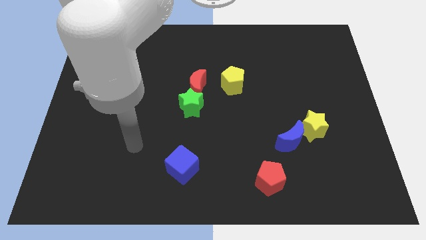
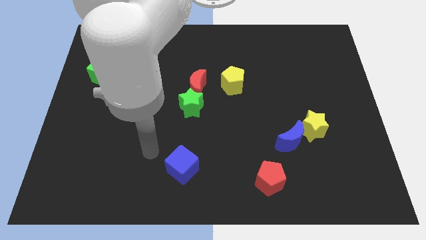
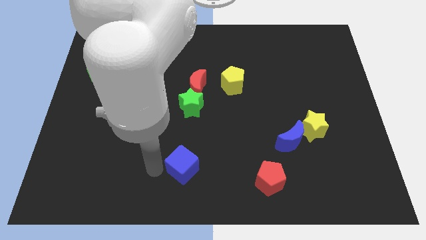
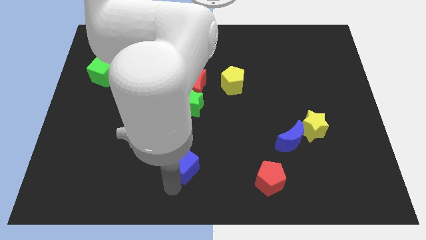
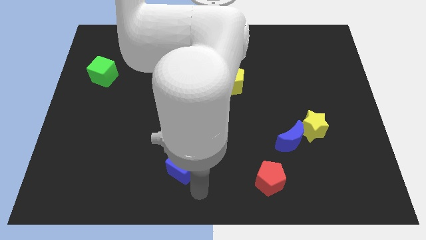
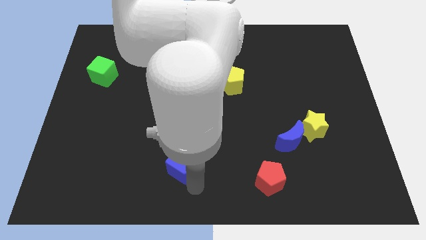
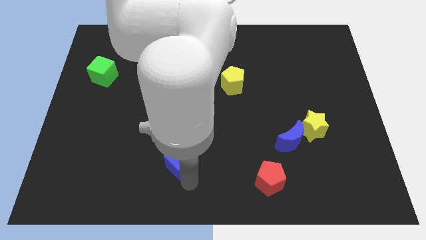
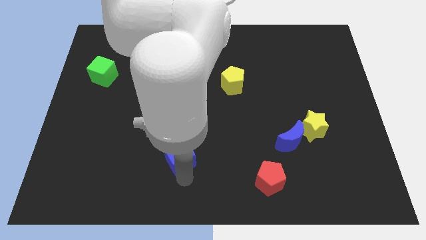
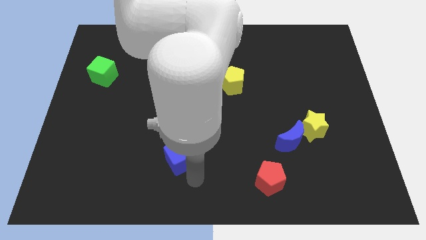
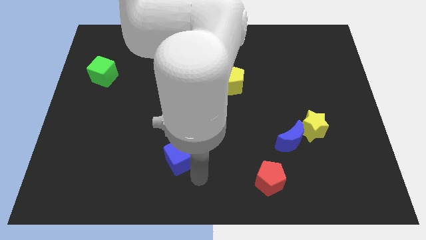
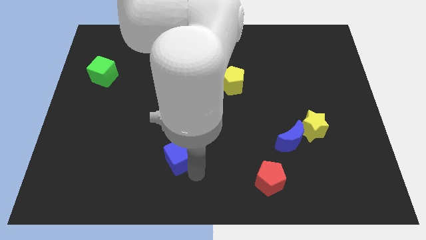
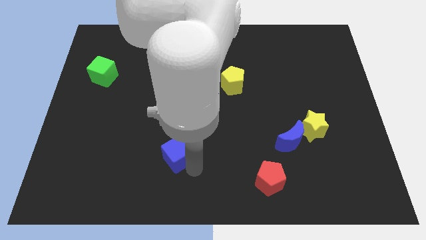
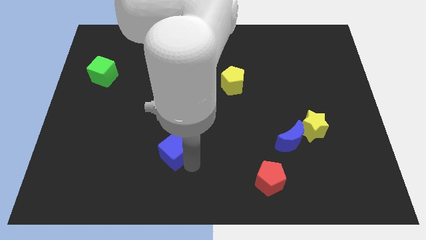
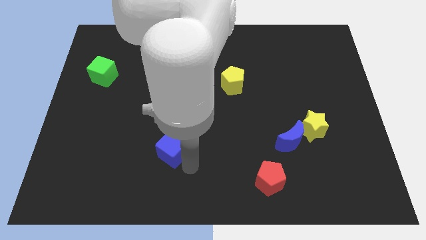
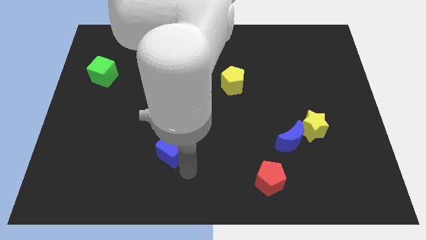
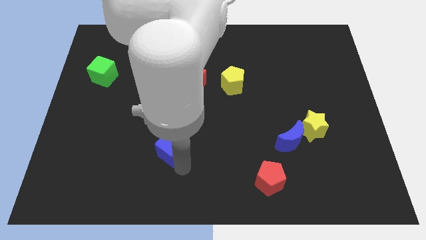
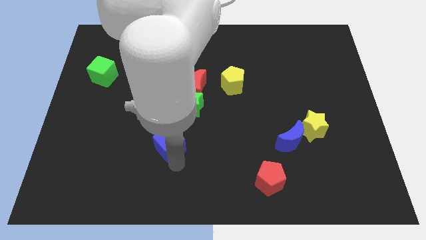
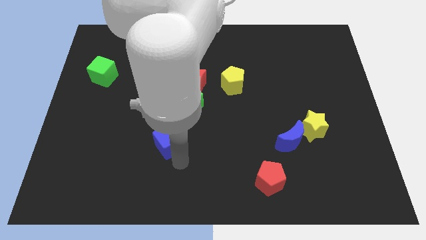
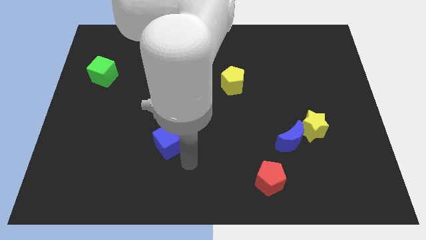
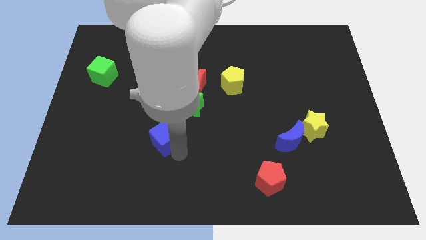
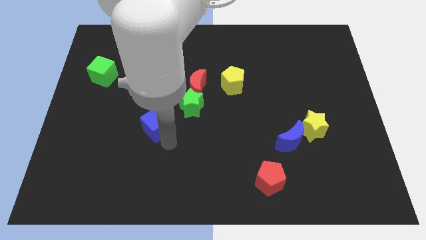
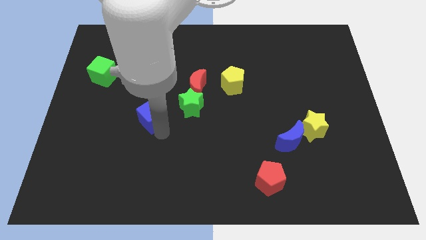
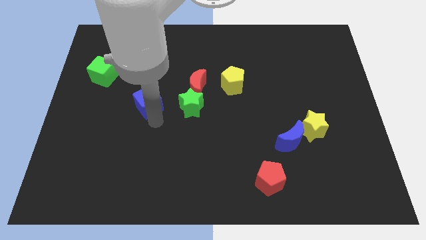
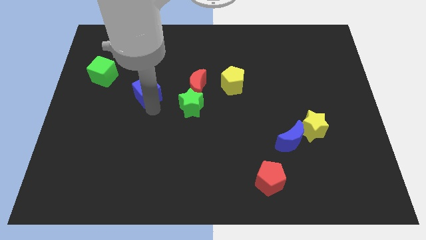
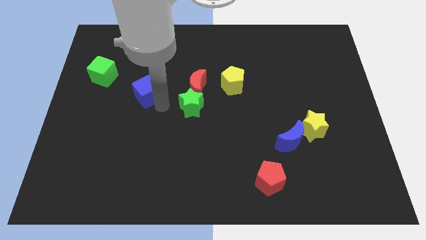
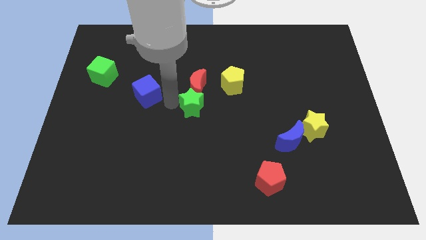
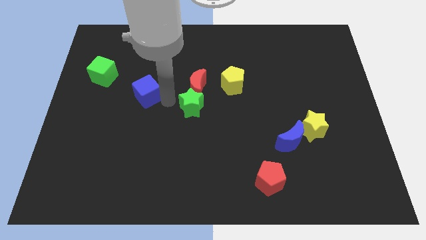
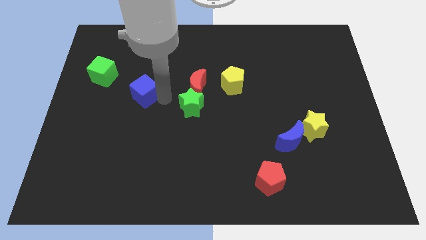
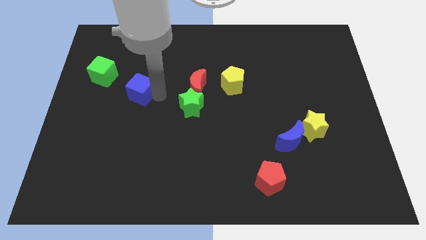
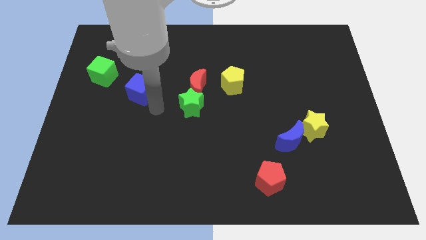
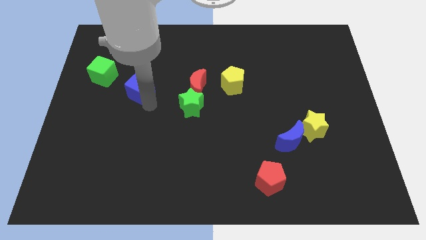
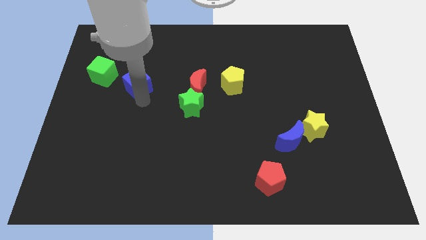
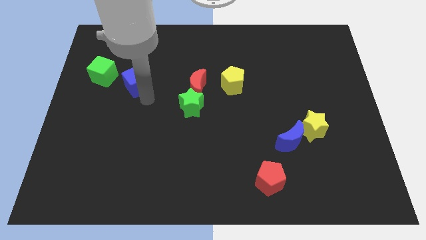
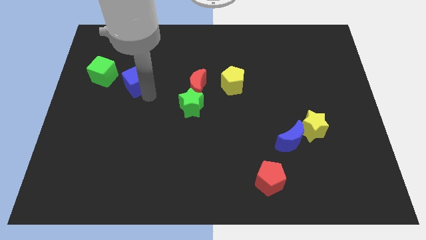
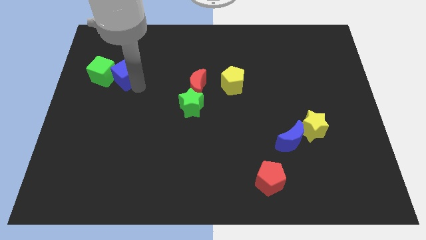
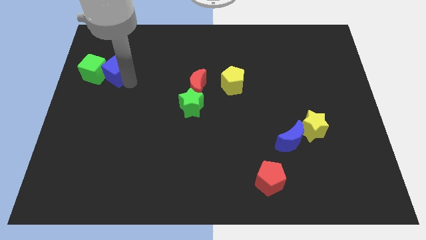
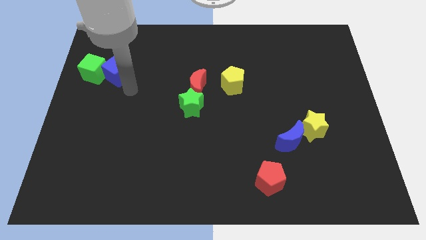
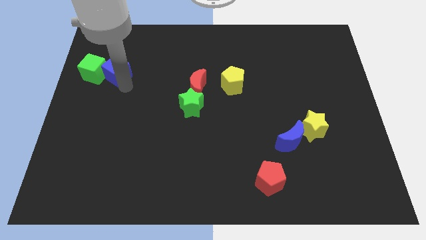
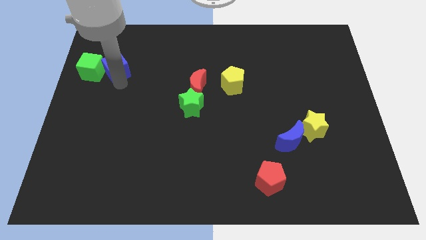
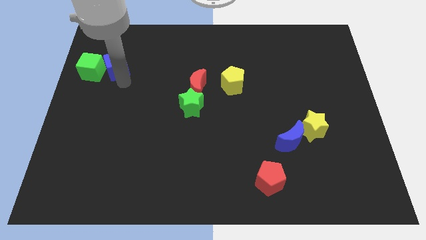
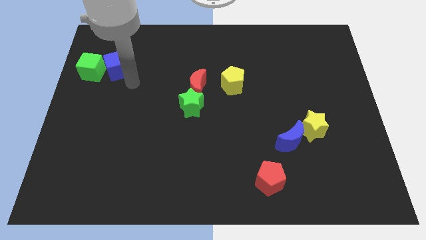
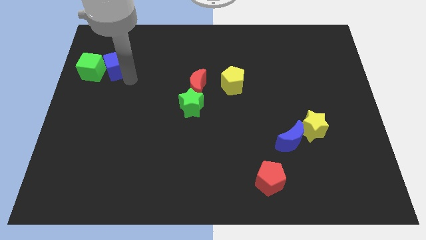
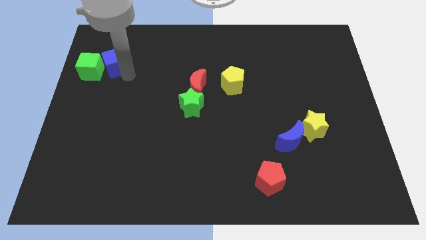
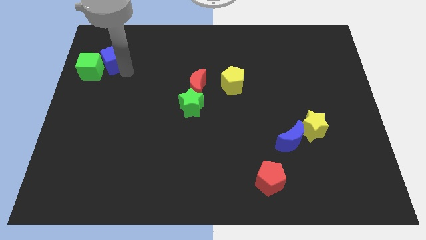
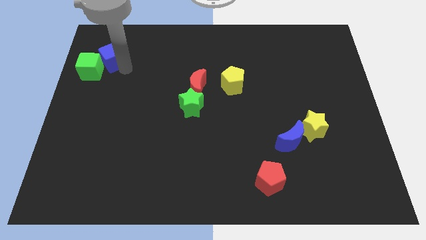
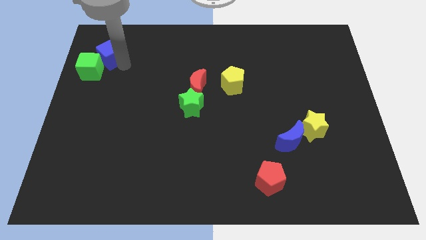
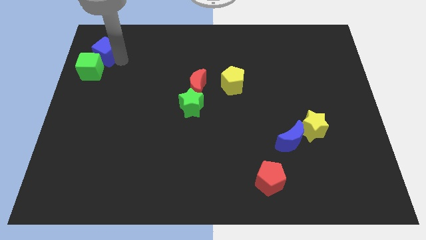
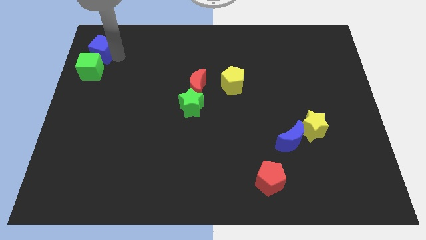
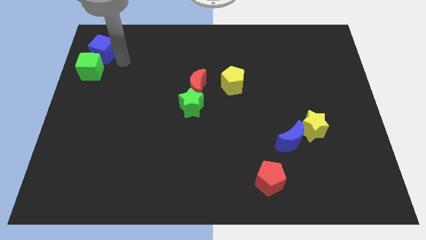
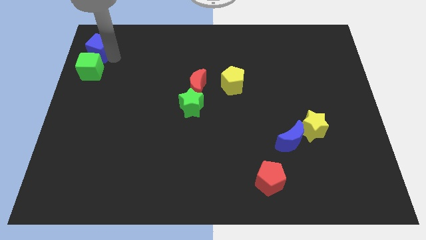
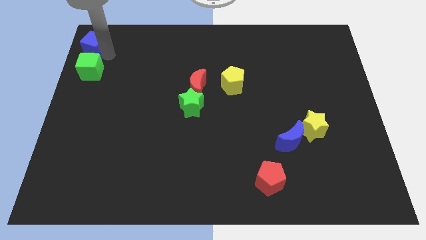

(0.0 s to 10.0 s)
move the blue cube to the top left corner

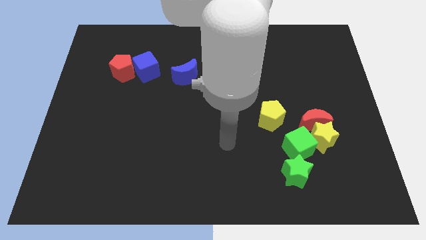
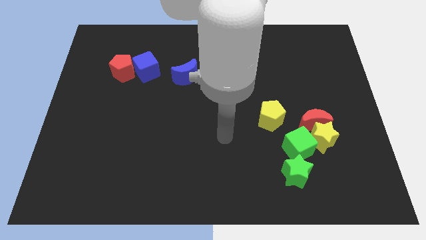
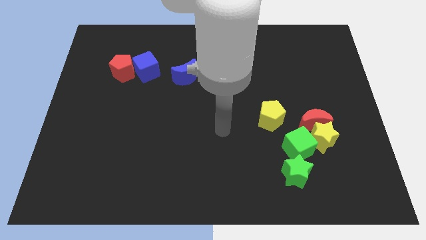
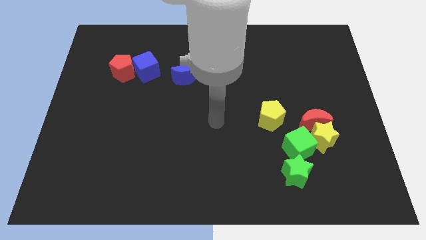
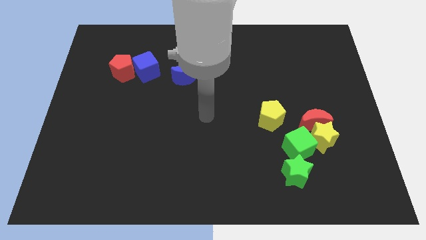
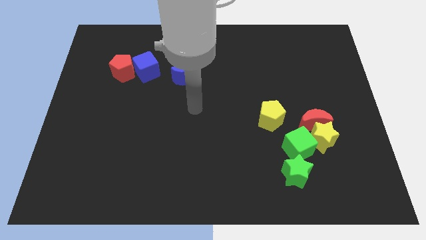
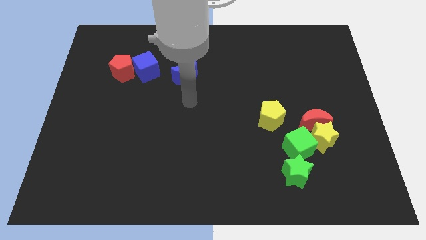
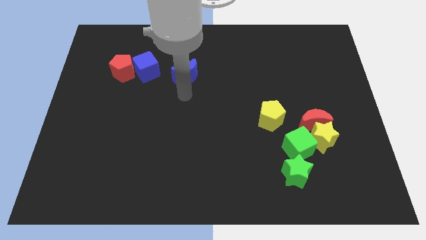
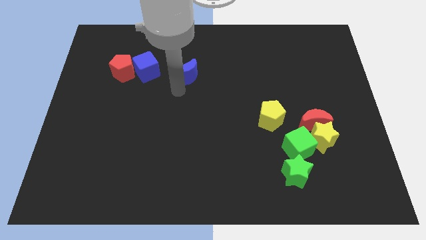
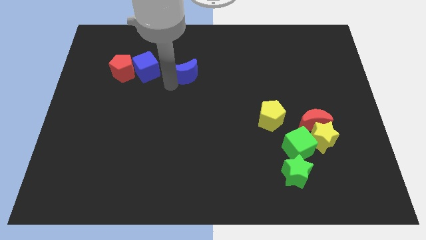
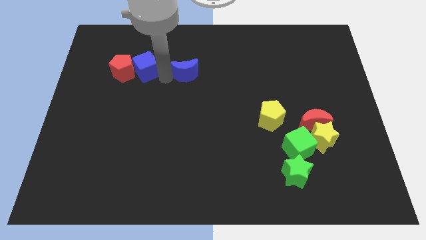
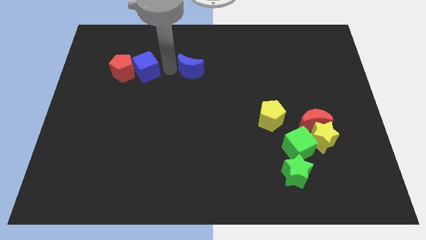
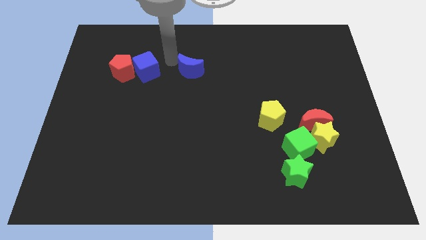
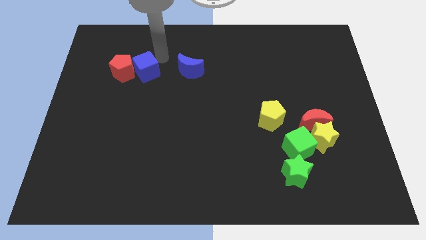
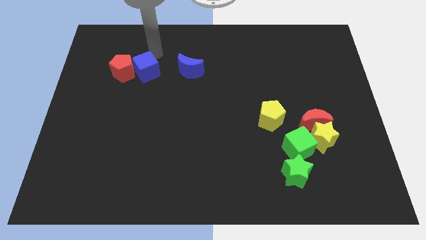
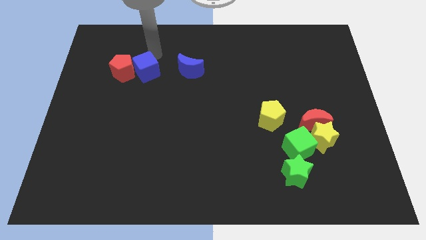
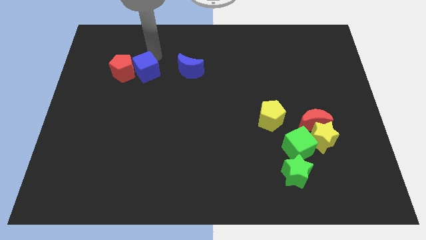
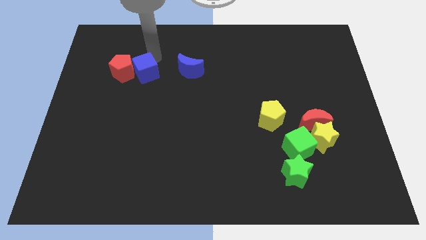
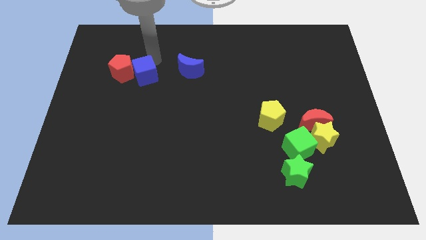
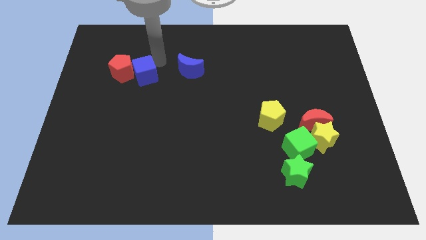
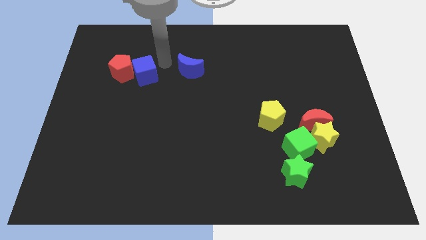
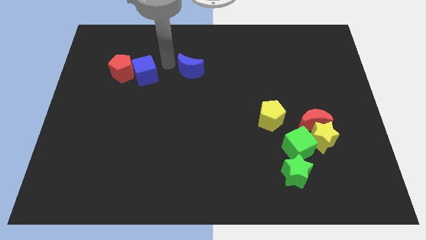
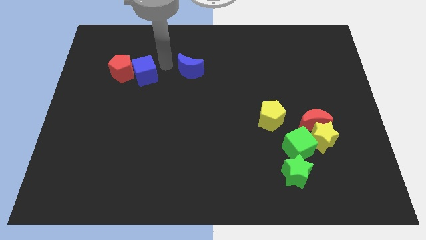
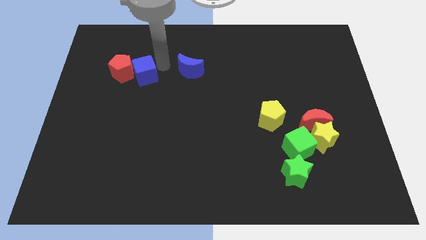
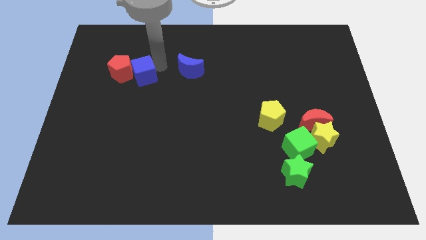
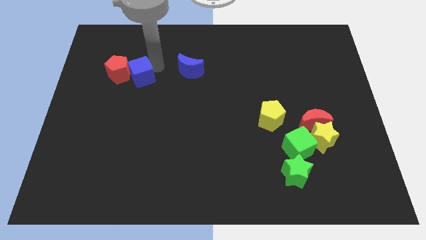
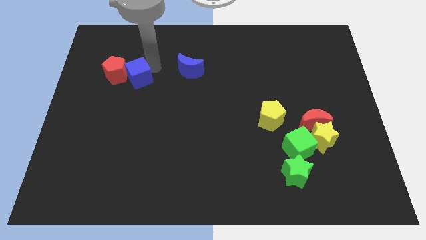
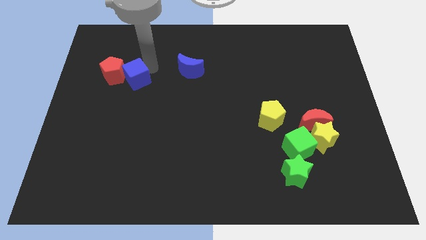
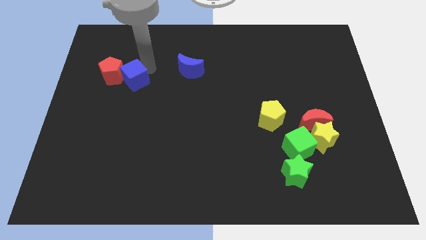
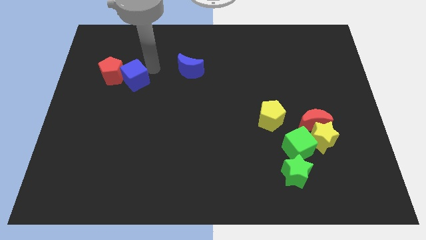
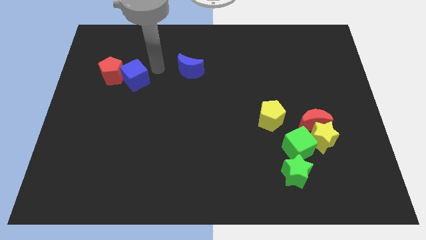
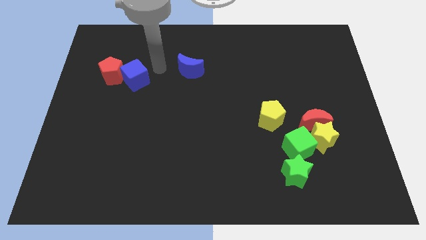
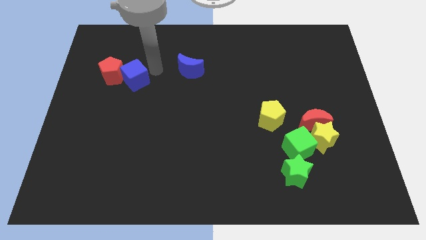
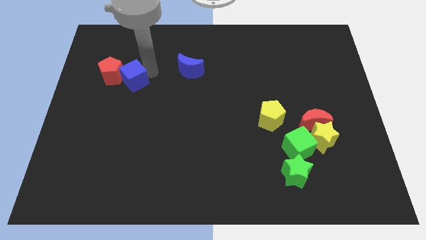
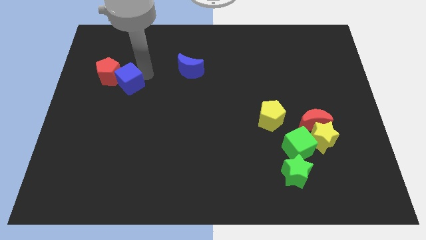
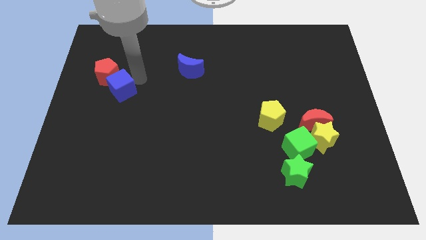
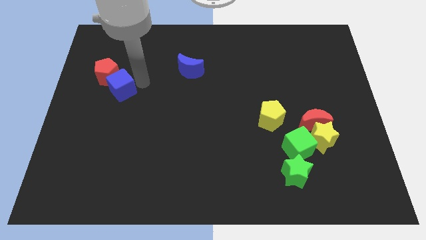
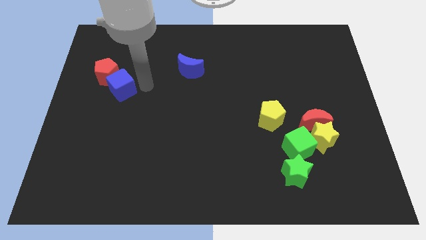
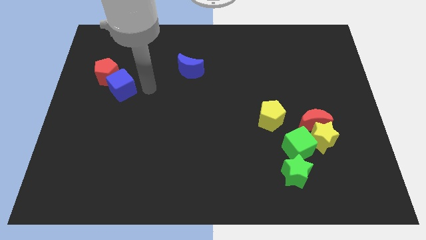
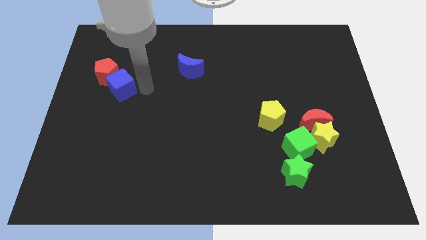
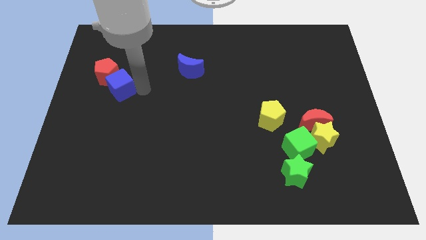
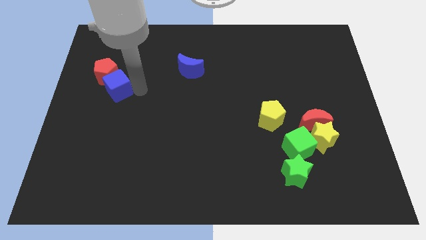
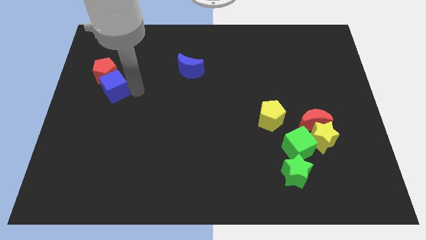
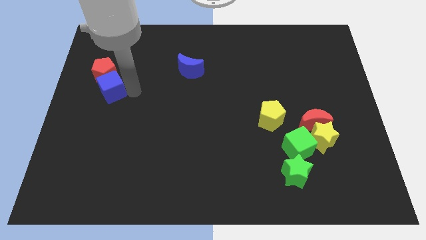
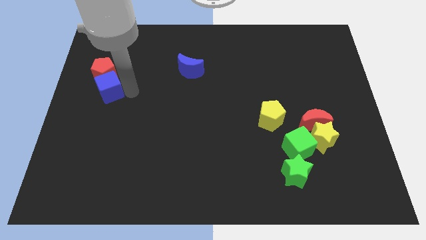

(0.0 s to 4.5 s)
move the blue cube to the left side of the board
